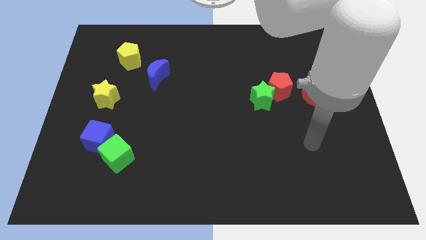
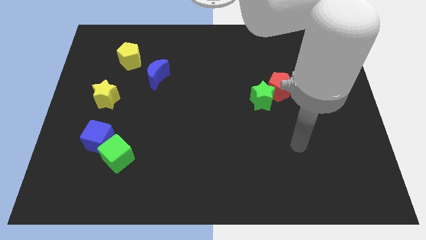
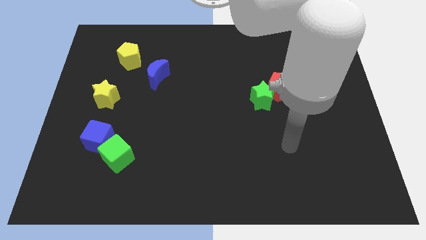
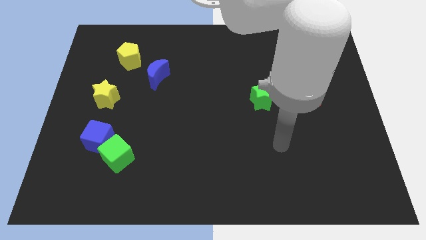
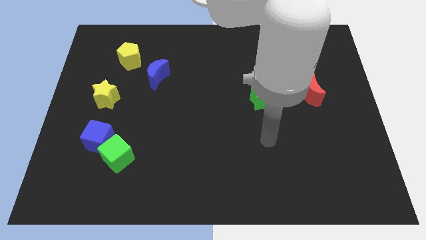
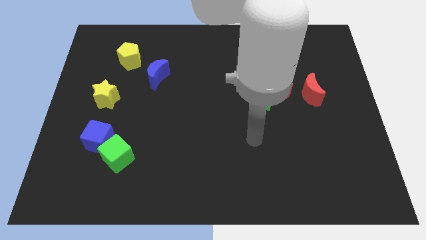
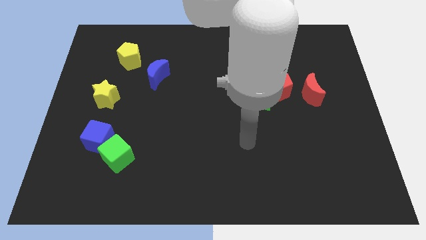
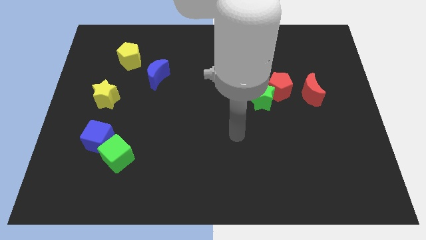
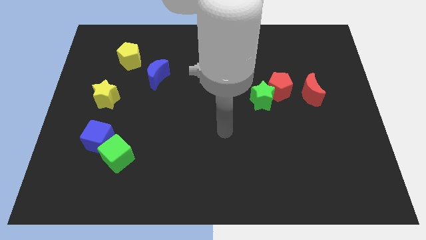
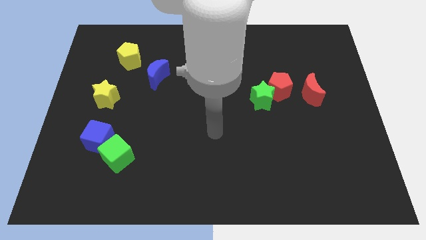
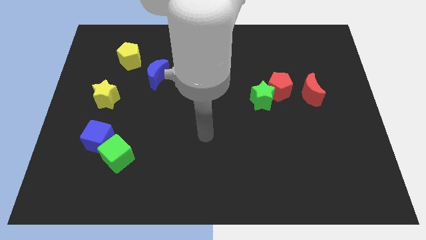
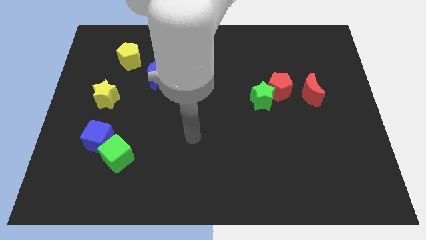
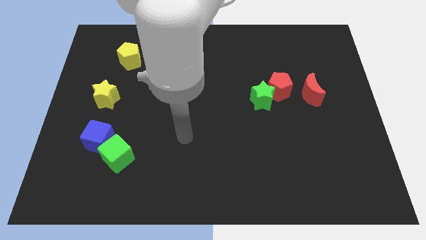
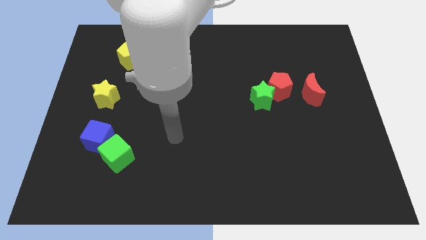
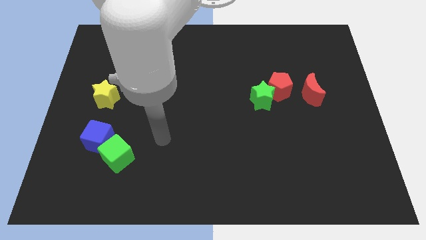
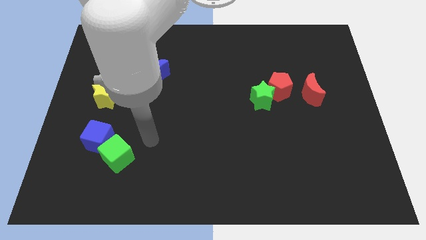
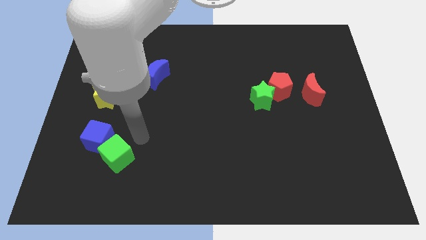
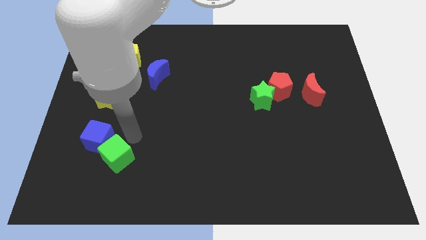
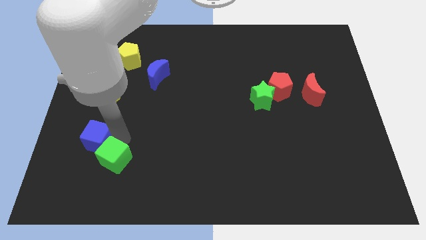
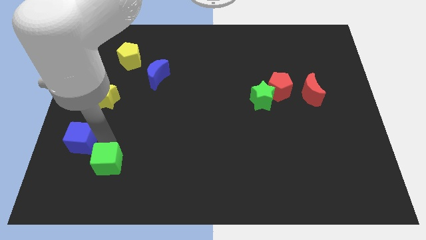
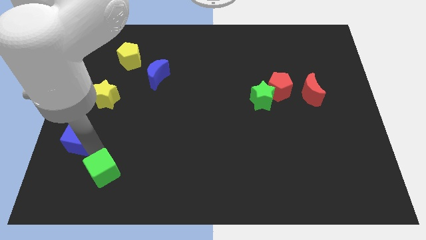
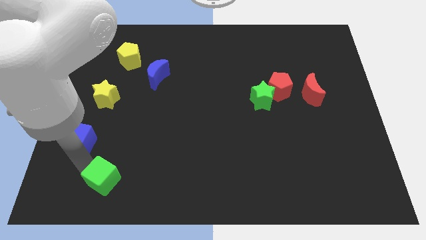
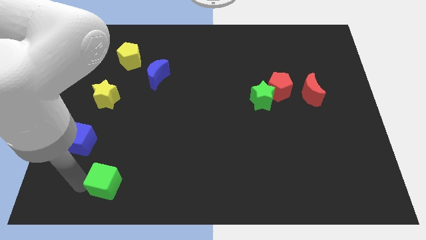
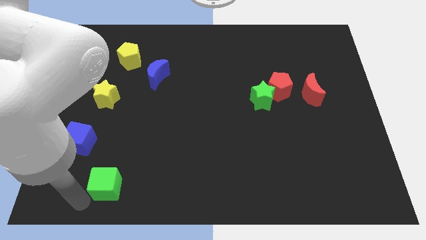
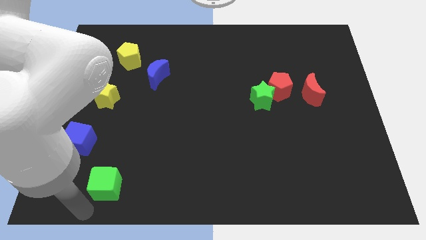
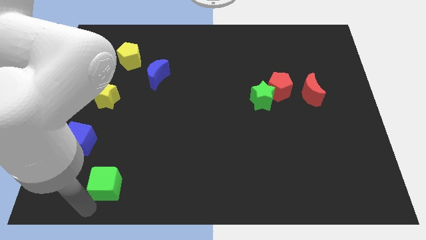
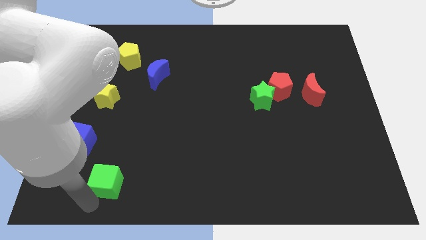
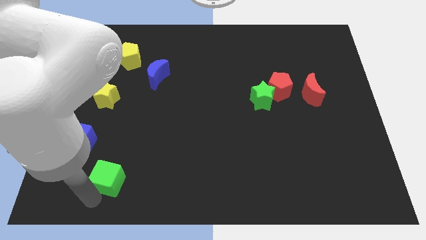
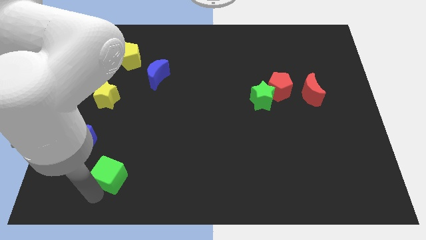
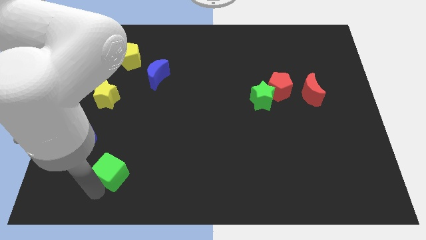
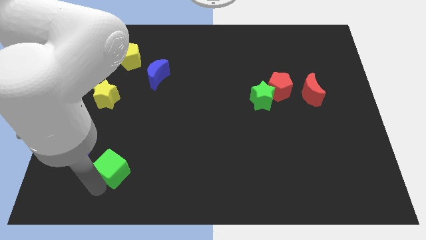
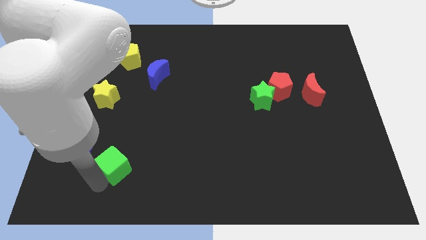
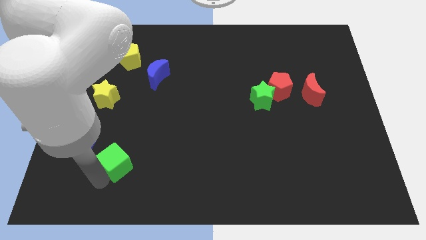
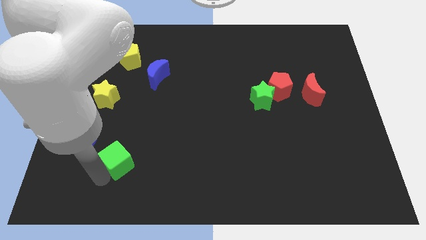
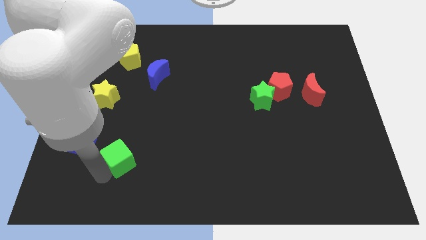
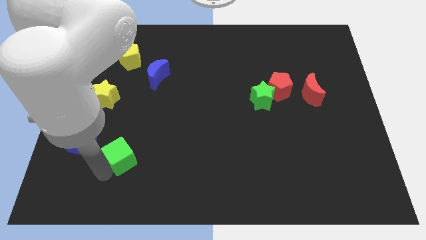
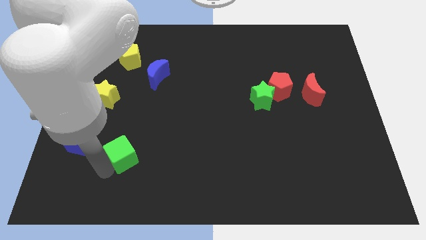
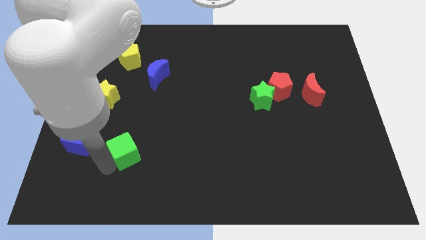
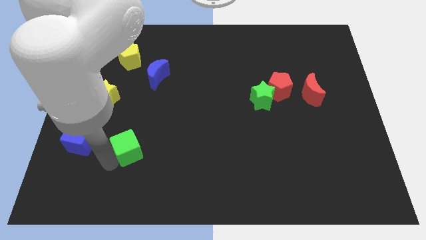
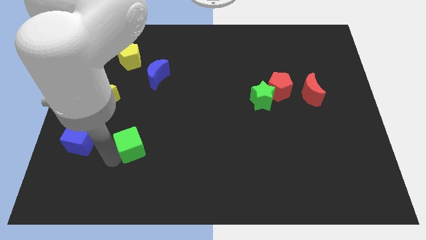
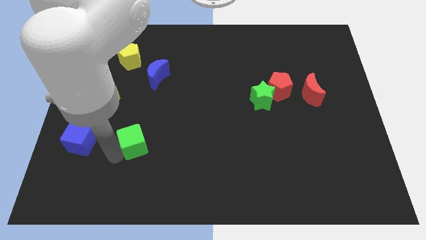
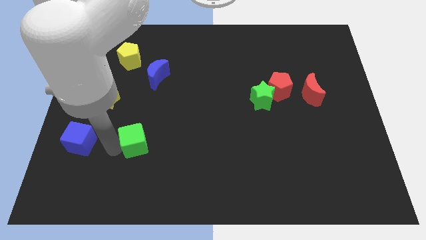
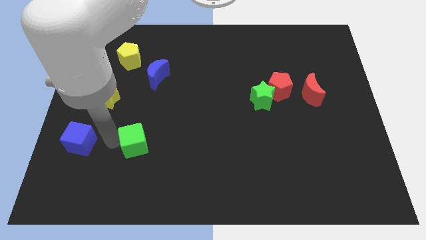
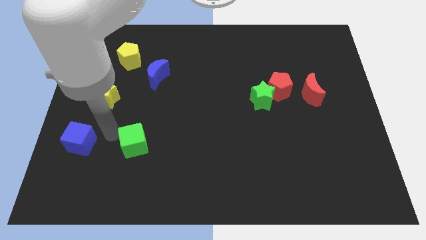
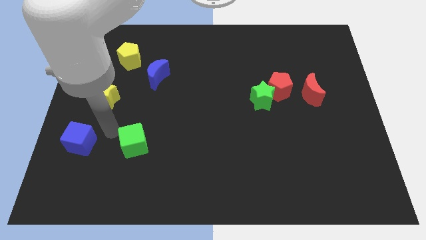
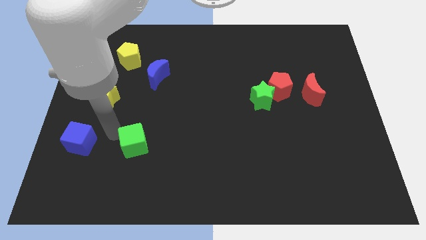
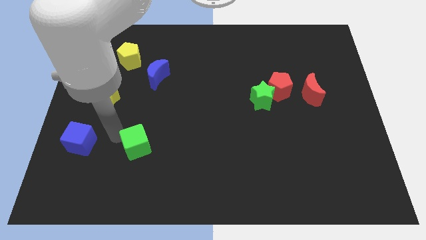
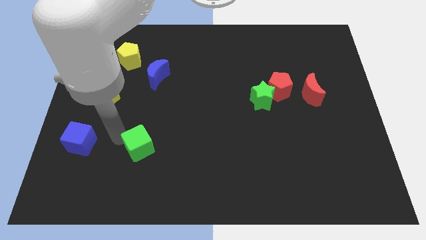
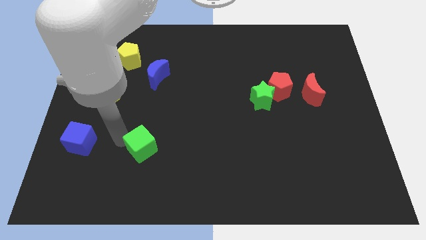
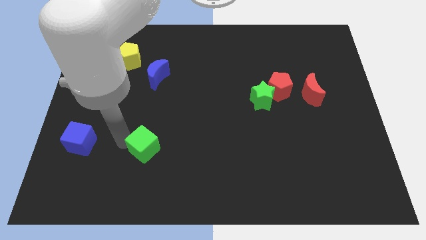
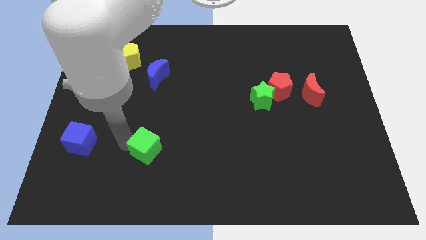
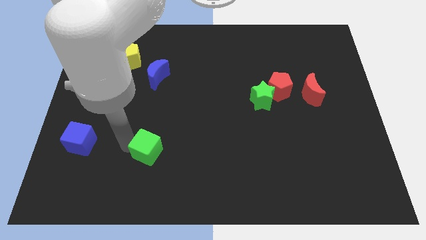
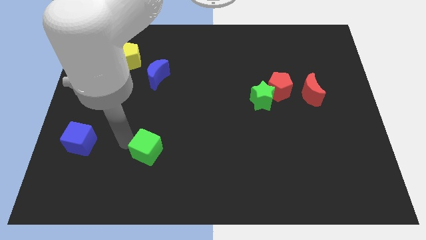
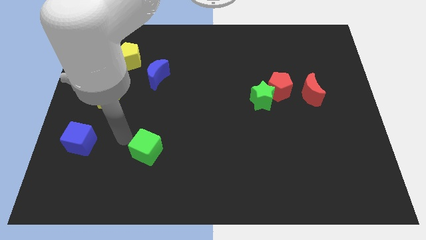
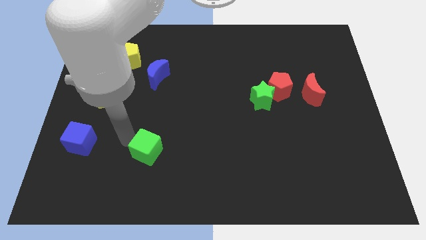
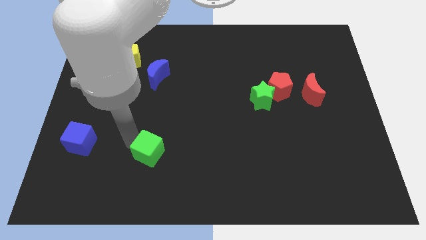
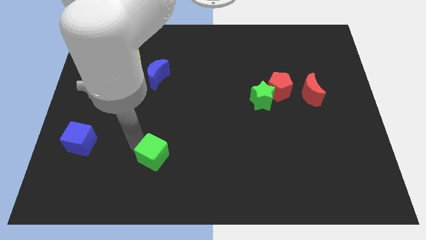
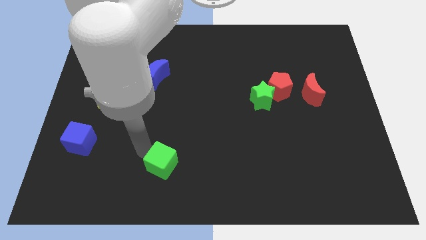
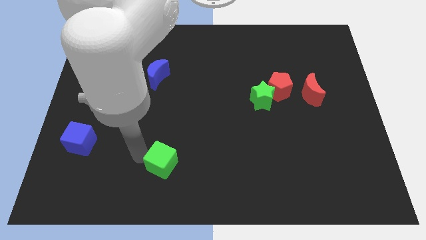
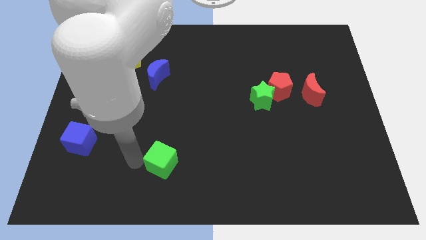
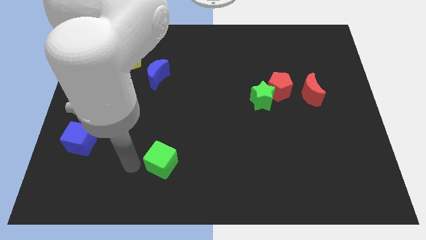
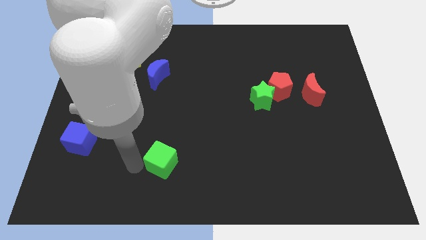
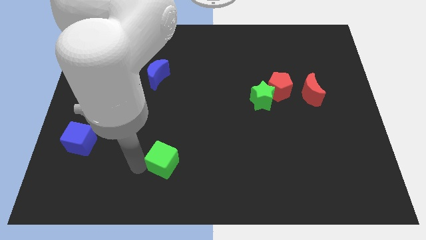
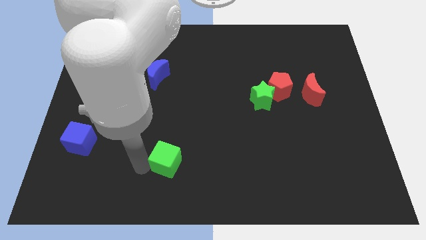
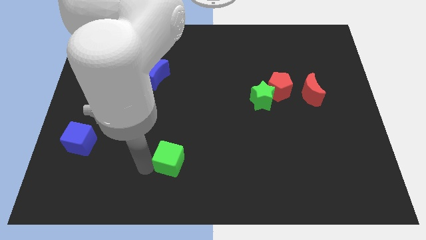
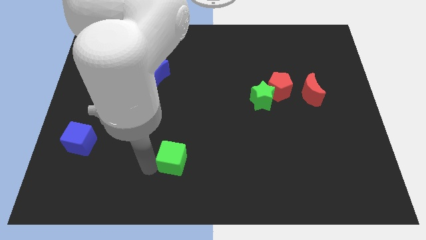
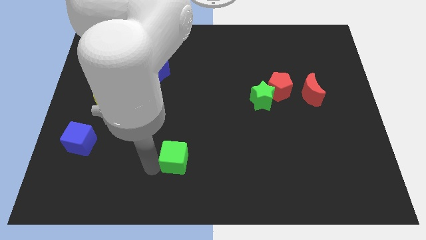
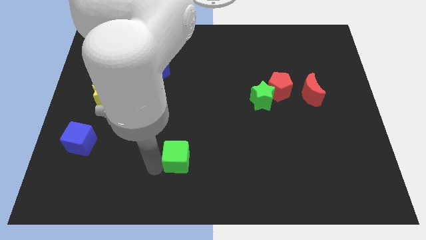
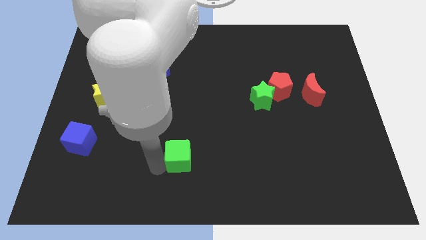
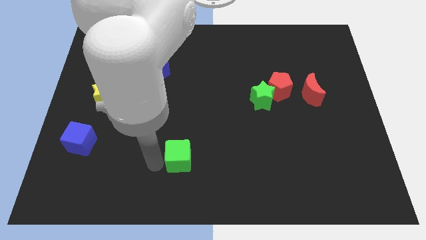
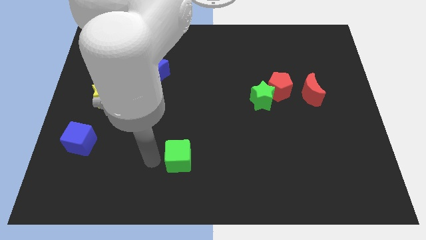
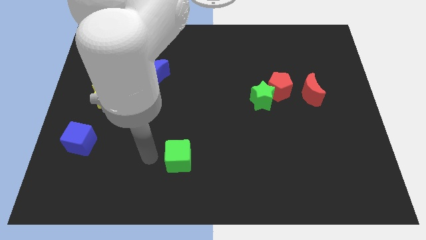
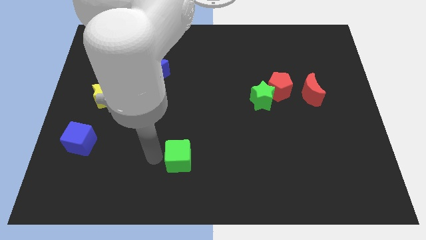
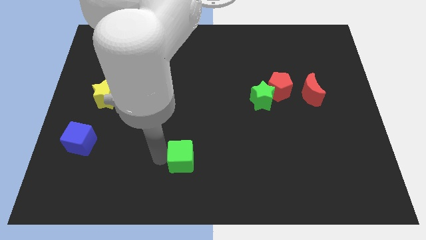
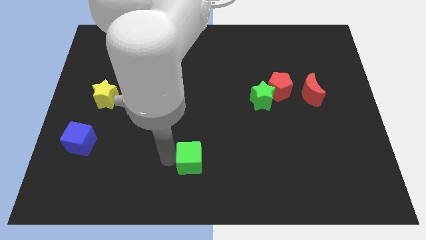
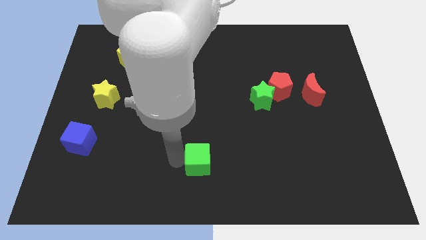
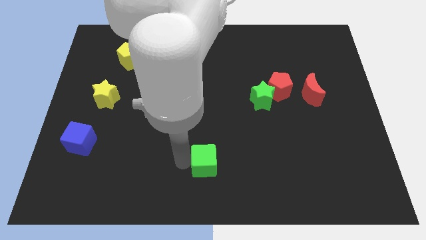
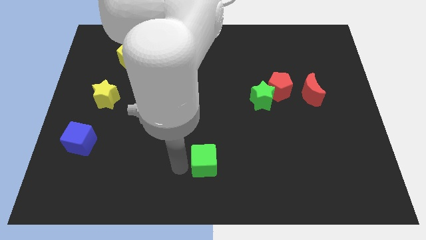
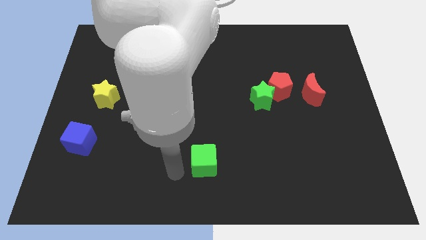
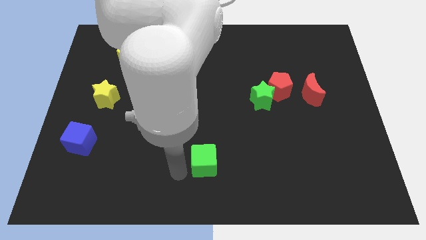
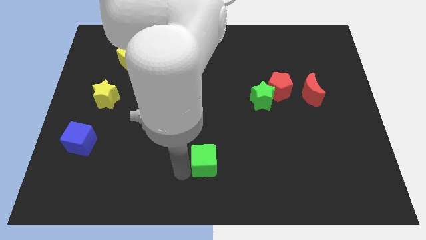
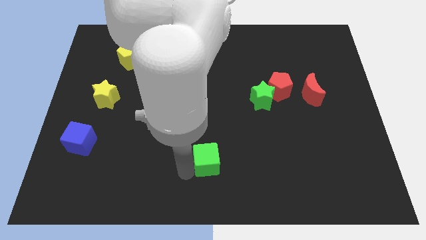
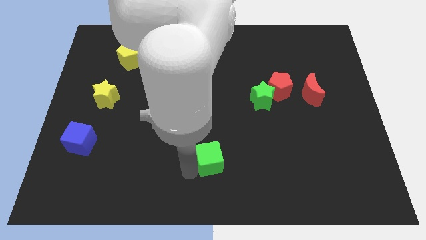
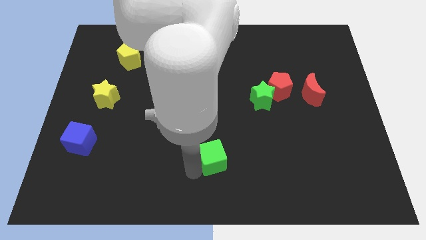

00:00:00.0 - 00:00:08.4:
push the green cube to the right
